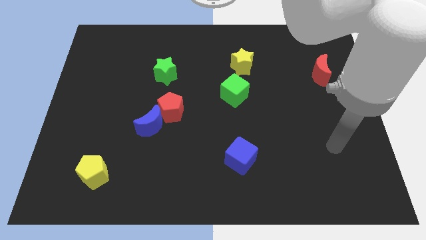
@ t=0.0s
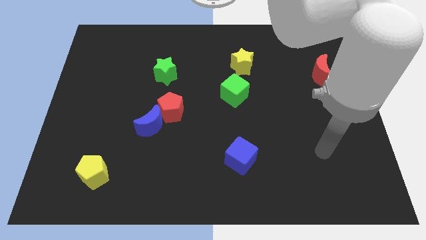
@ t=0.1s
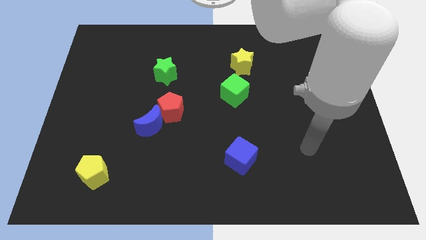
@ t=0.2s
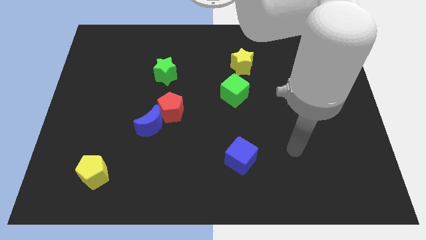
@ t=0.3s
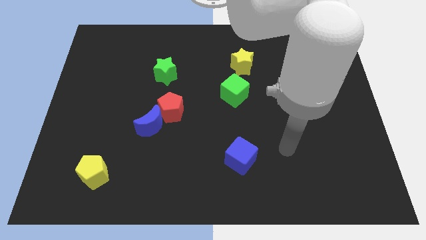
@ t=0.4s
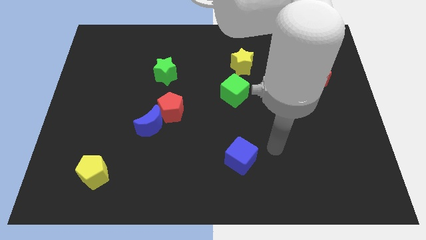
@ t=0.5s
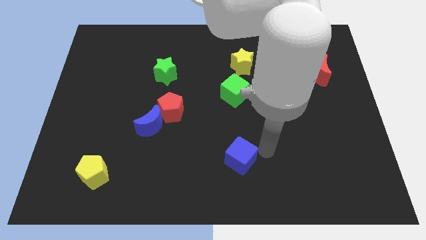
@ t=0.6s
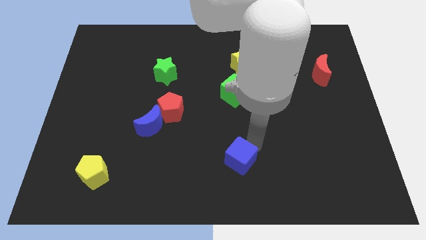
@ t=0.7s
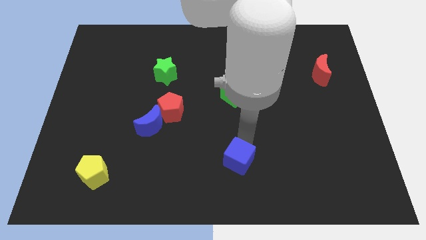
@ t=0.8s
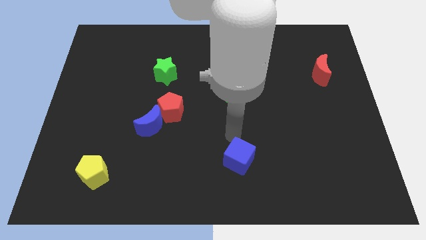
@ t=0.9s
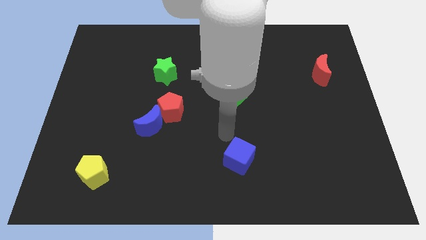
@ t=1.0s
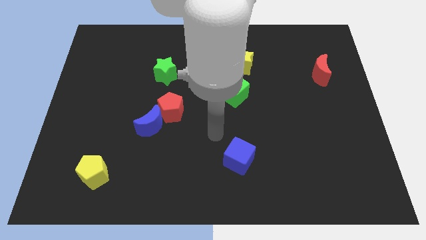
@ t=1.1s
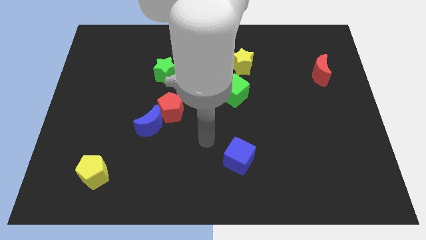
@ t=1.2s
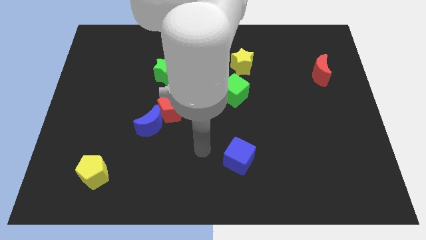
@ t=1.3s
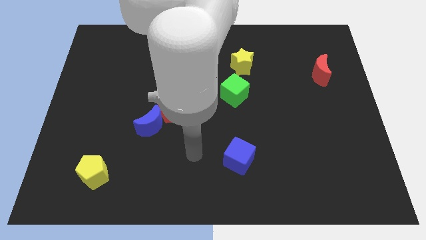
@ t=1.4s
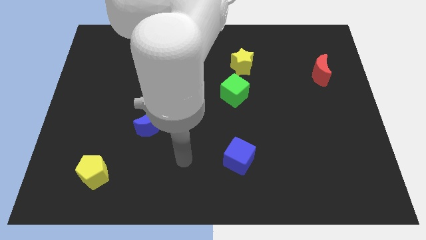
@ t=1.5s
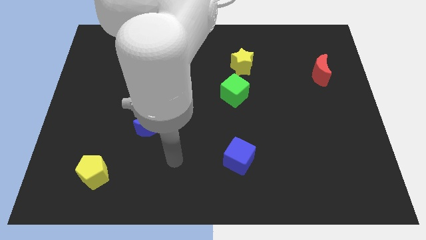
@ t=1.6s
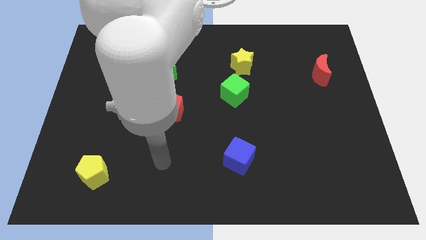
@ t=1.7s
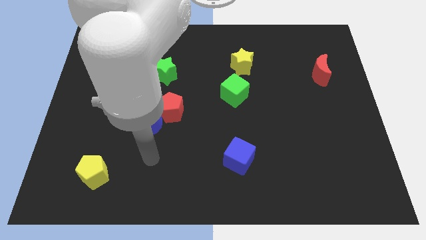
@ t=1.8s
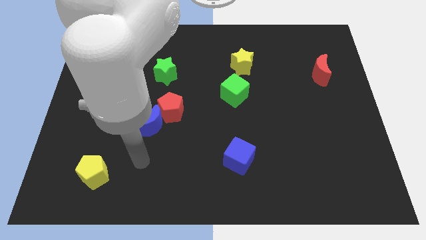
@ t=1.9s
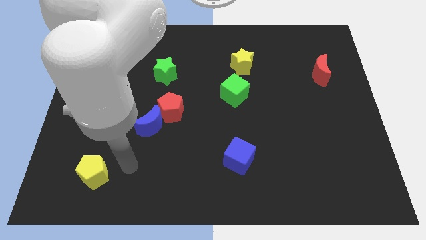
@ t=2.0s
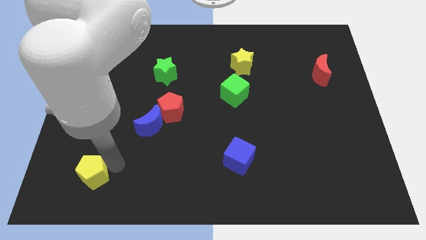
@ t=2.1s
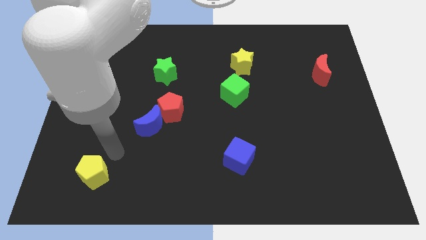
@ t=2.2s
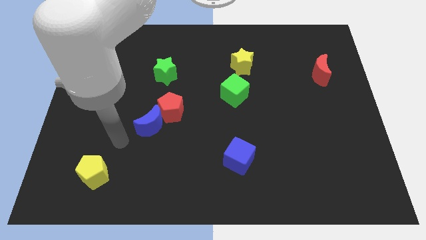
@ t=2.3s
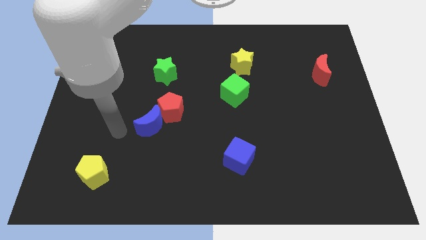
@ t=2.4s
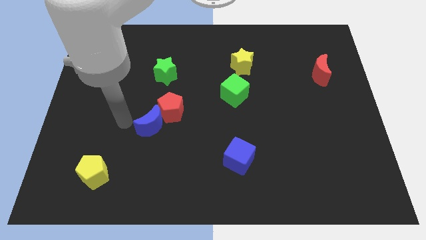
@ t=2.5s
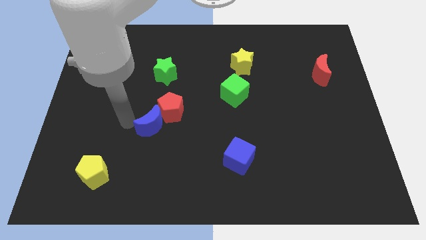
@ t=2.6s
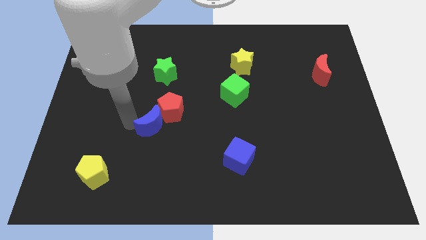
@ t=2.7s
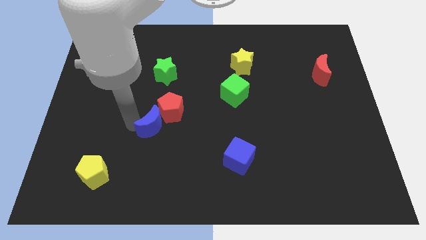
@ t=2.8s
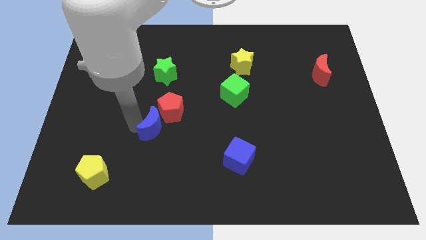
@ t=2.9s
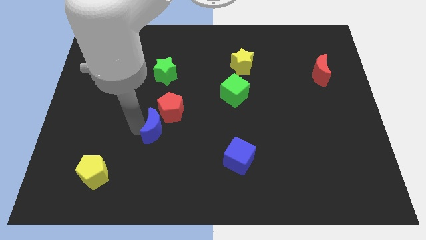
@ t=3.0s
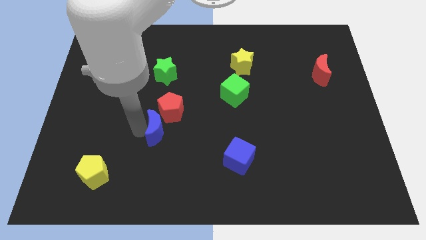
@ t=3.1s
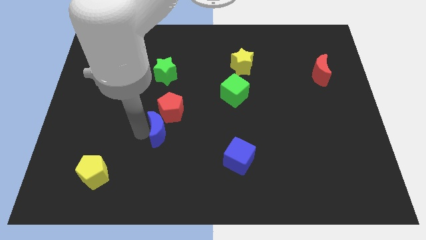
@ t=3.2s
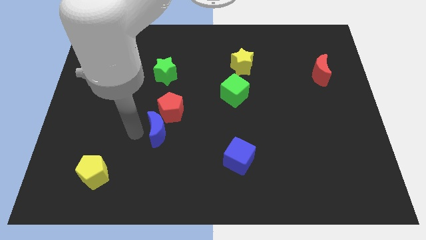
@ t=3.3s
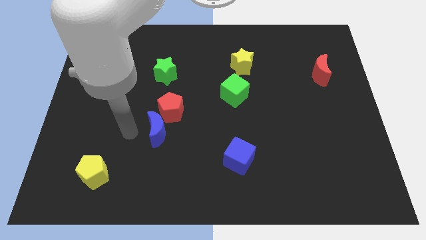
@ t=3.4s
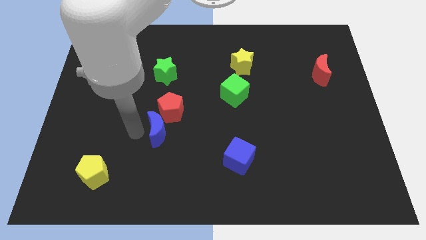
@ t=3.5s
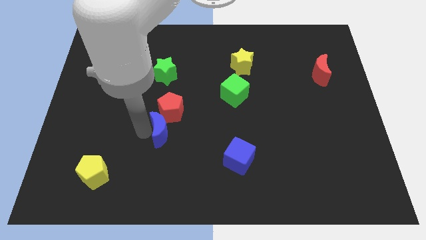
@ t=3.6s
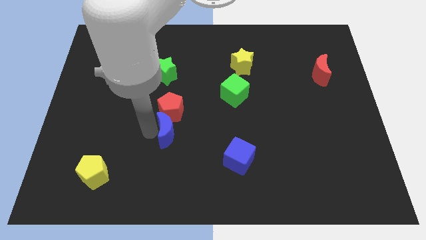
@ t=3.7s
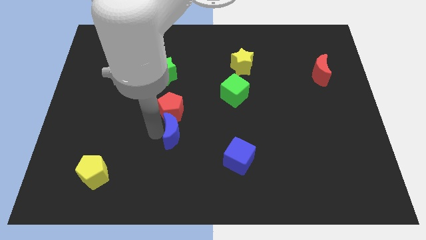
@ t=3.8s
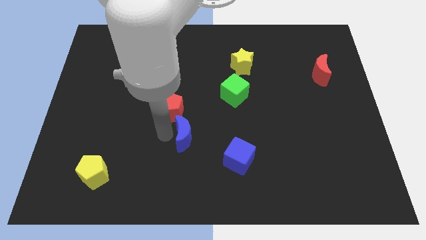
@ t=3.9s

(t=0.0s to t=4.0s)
slightly push the blue moon to the right

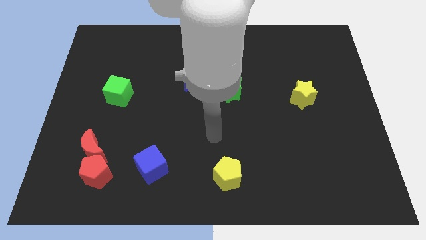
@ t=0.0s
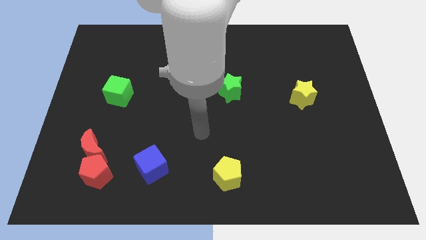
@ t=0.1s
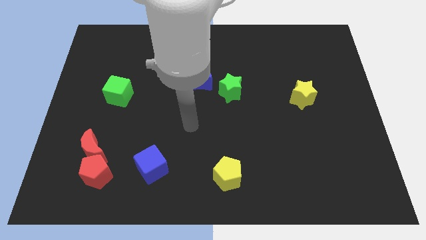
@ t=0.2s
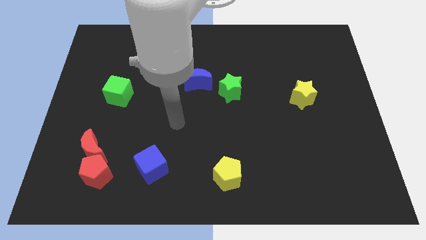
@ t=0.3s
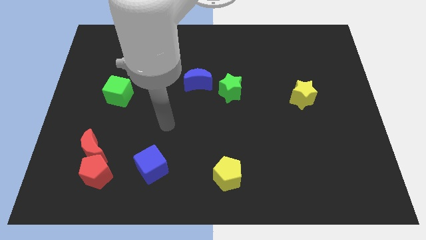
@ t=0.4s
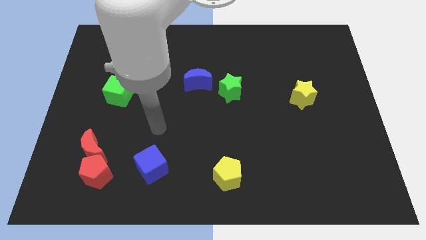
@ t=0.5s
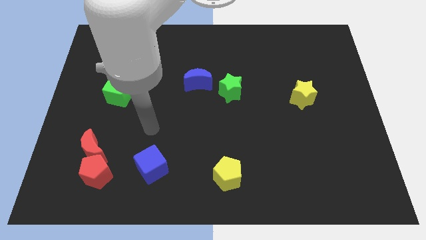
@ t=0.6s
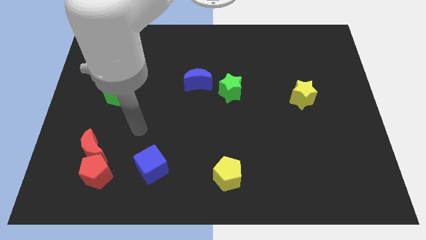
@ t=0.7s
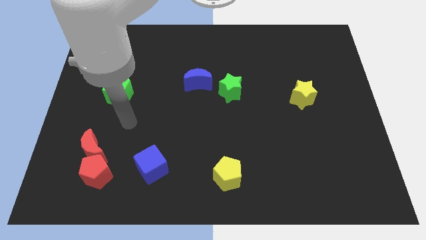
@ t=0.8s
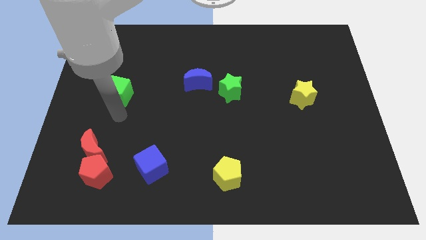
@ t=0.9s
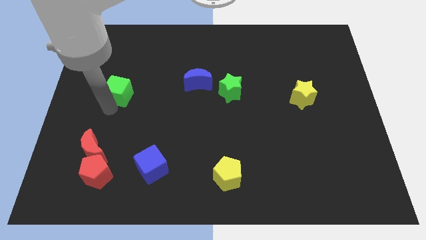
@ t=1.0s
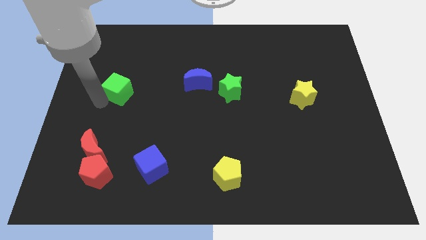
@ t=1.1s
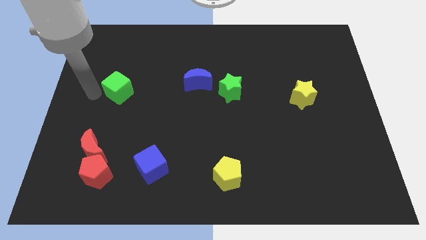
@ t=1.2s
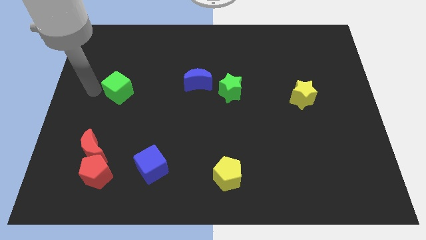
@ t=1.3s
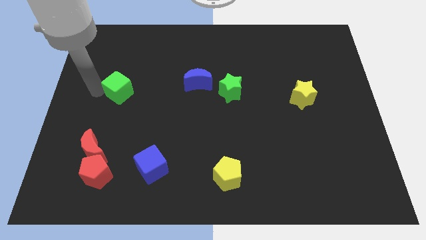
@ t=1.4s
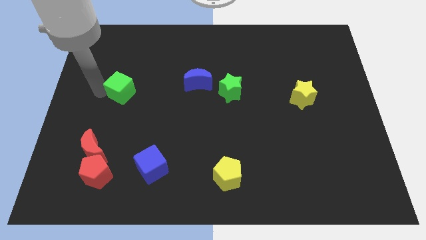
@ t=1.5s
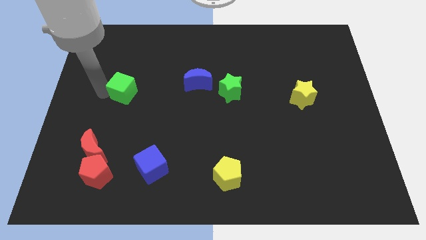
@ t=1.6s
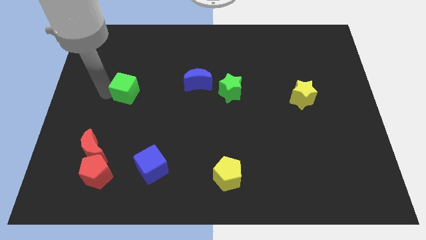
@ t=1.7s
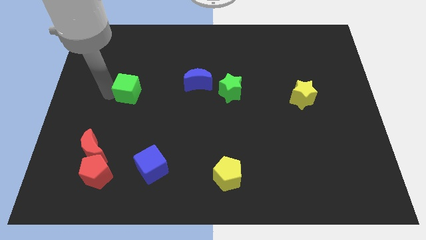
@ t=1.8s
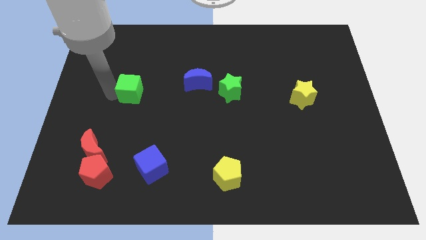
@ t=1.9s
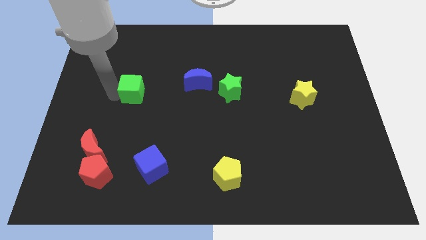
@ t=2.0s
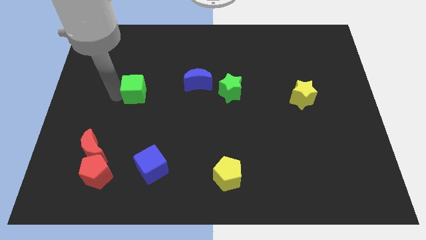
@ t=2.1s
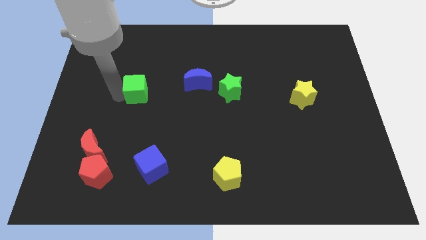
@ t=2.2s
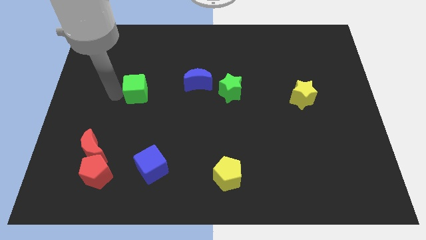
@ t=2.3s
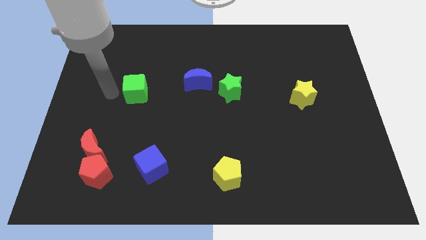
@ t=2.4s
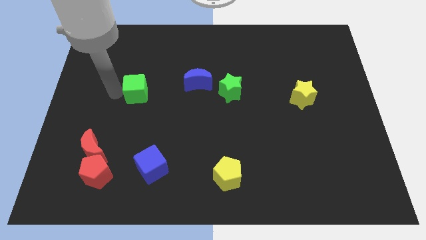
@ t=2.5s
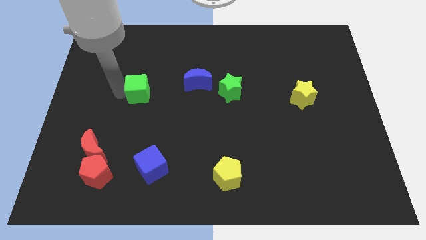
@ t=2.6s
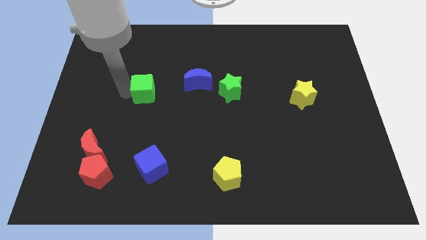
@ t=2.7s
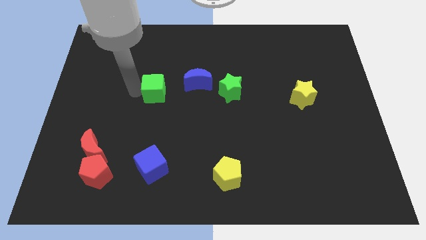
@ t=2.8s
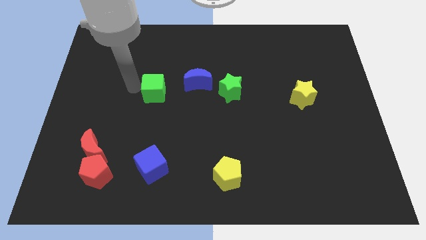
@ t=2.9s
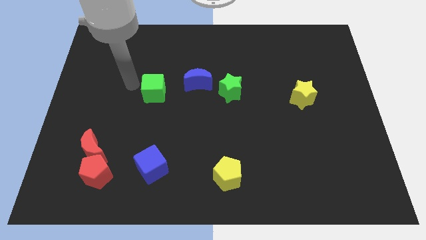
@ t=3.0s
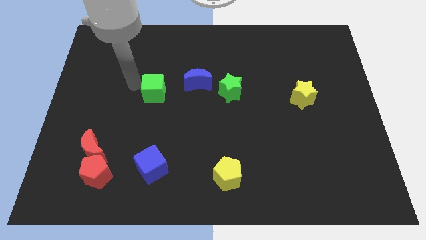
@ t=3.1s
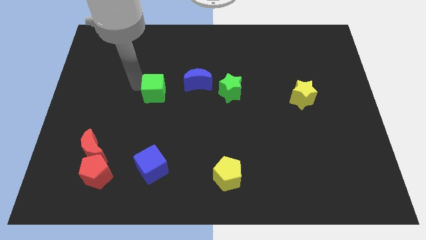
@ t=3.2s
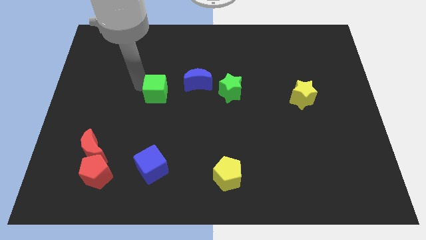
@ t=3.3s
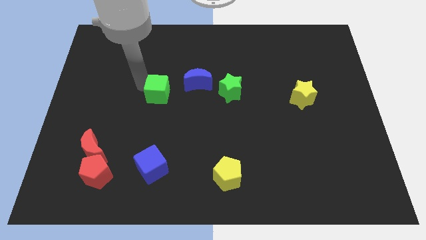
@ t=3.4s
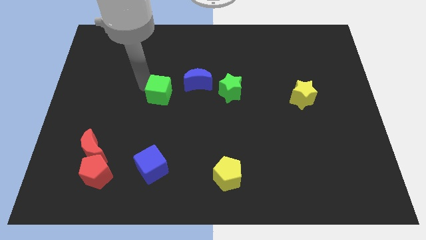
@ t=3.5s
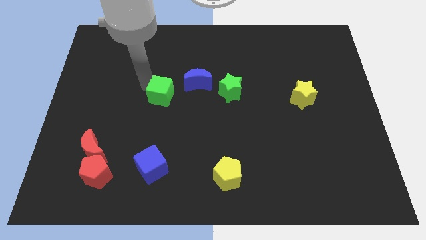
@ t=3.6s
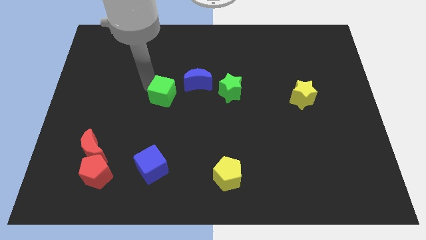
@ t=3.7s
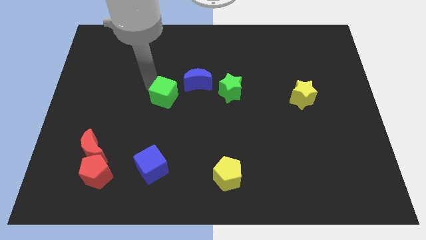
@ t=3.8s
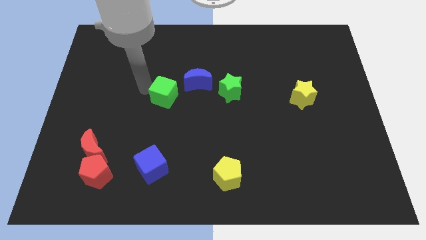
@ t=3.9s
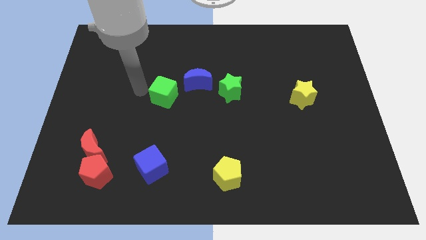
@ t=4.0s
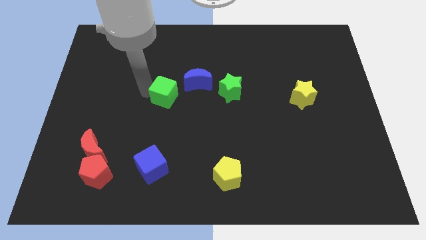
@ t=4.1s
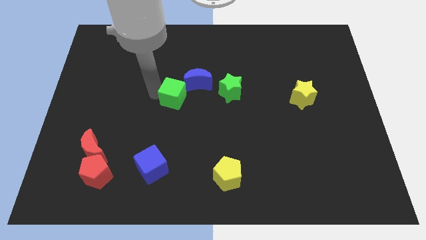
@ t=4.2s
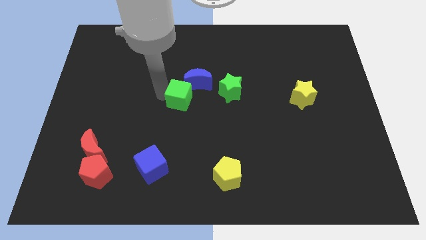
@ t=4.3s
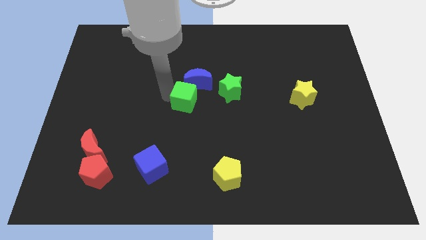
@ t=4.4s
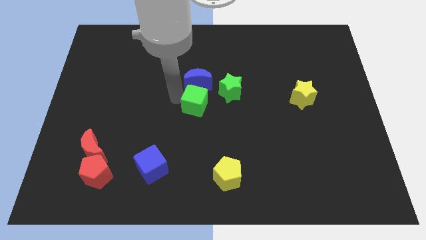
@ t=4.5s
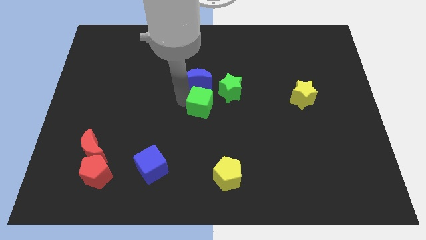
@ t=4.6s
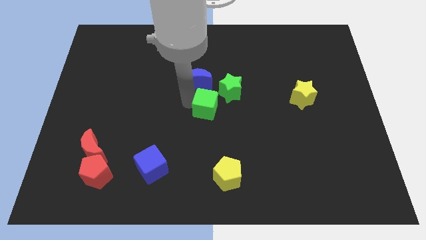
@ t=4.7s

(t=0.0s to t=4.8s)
push the green cube right
